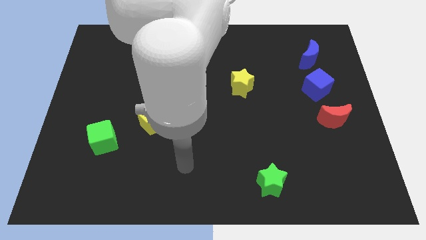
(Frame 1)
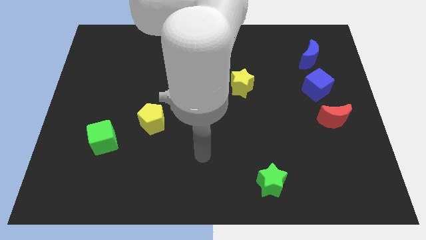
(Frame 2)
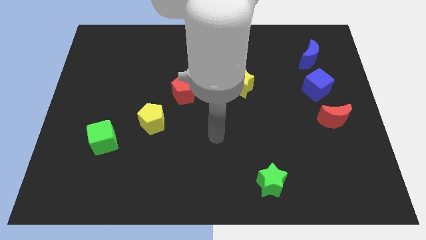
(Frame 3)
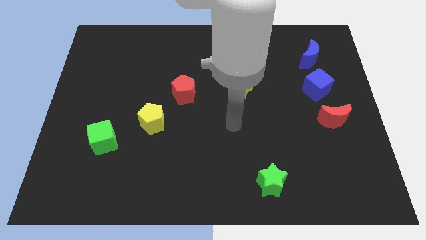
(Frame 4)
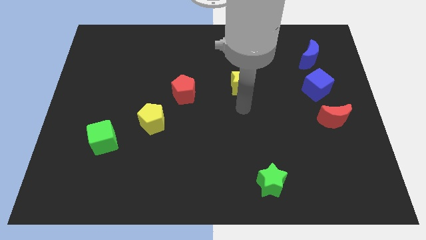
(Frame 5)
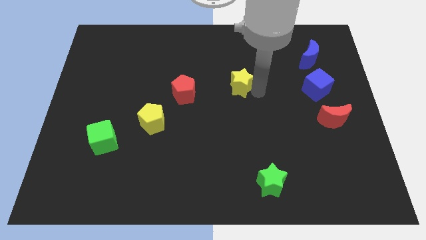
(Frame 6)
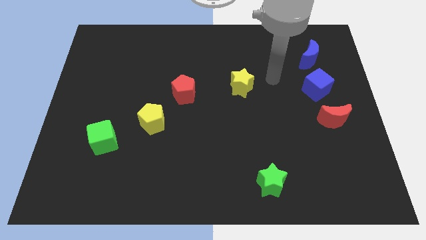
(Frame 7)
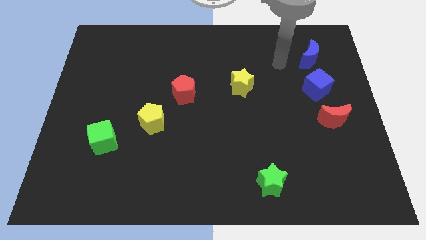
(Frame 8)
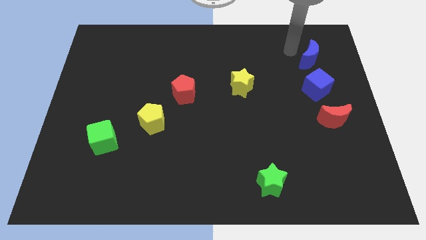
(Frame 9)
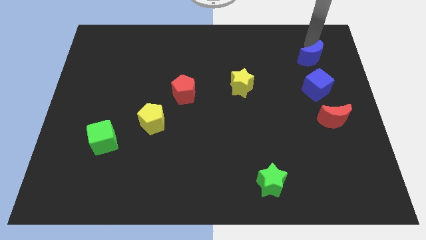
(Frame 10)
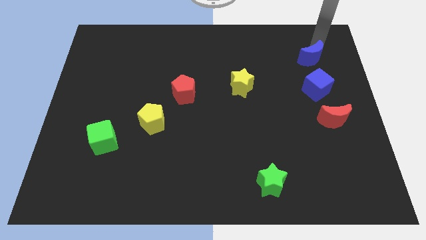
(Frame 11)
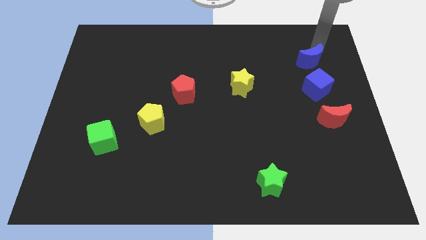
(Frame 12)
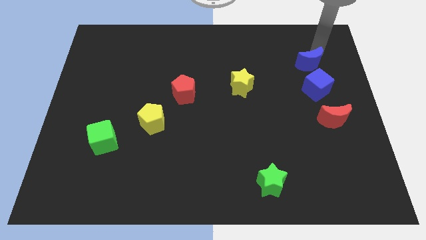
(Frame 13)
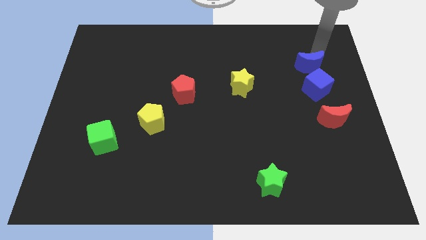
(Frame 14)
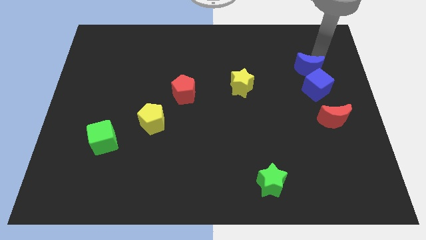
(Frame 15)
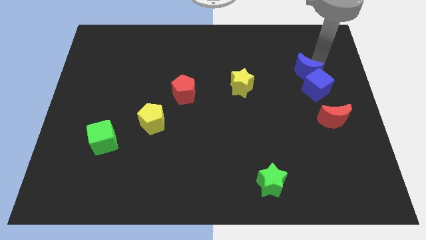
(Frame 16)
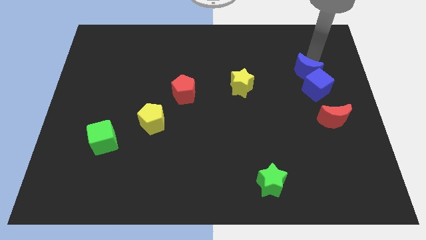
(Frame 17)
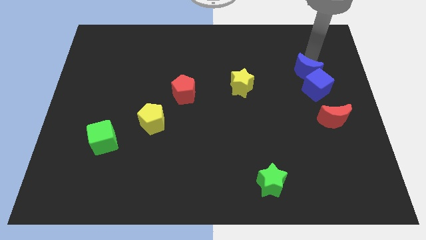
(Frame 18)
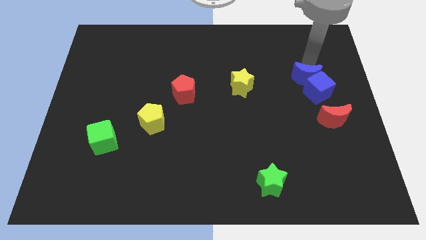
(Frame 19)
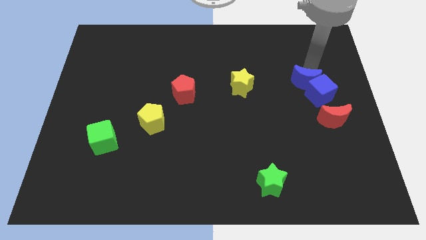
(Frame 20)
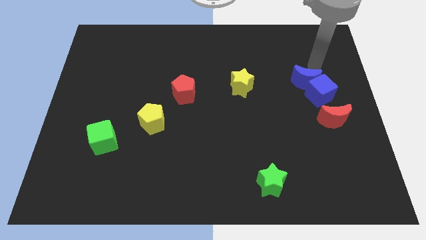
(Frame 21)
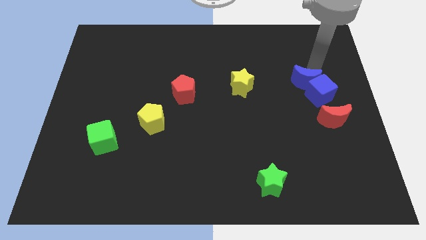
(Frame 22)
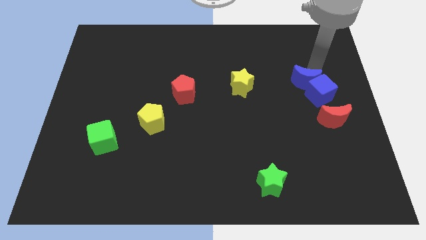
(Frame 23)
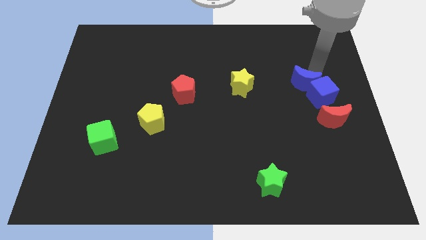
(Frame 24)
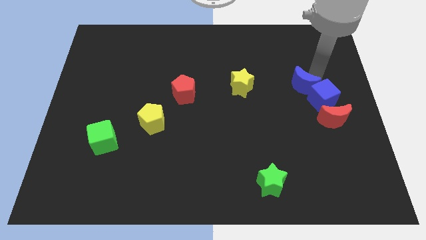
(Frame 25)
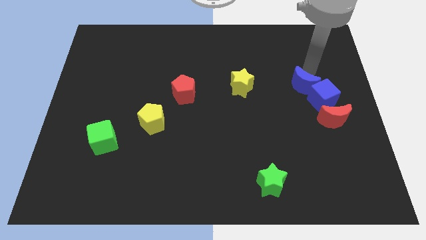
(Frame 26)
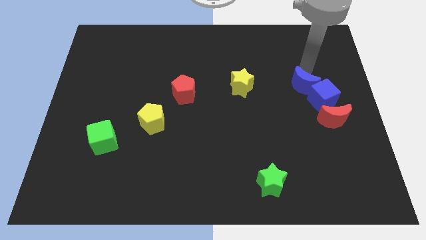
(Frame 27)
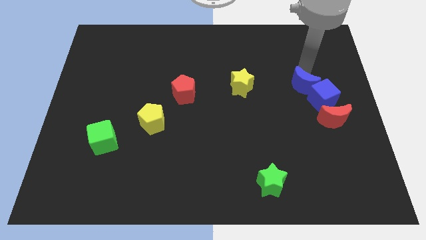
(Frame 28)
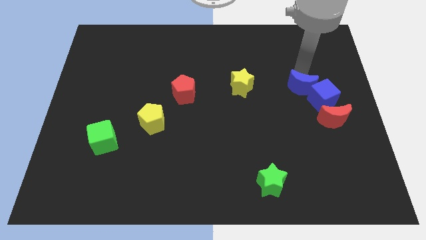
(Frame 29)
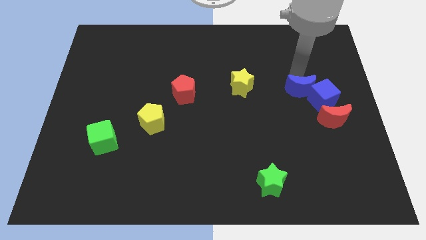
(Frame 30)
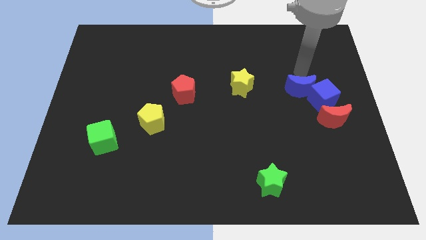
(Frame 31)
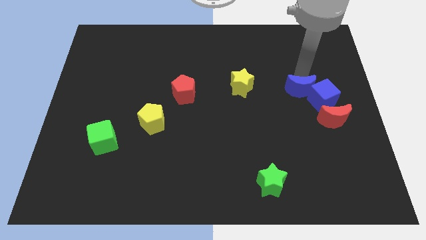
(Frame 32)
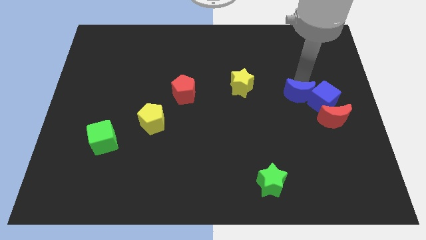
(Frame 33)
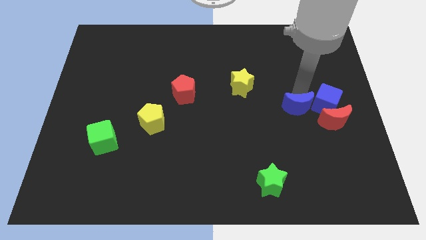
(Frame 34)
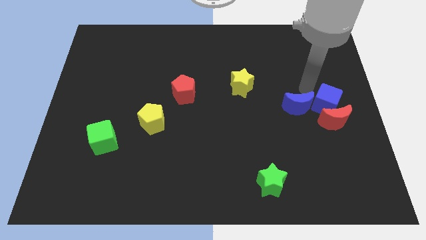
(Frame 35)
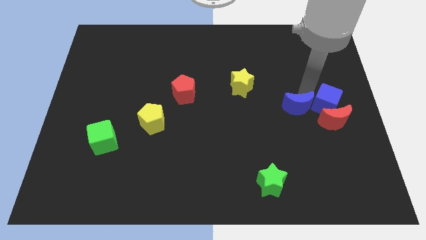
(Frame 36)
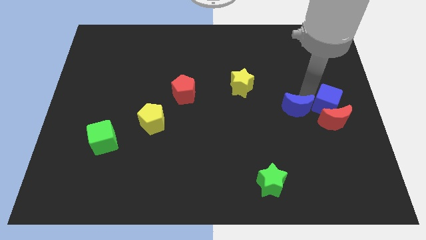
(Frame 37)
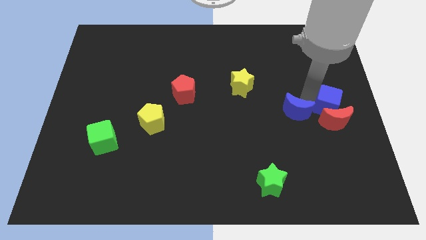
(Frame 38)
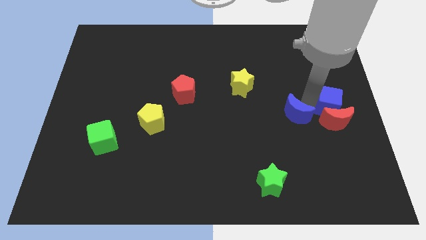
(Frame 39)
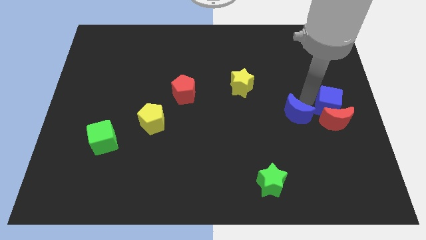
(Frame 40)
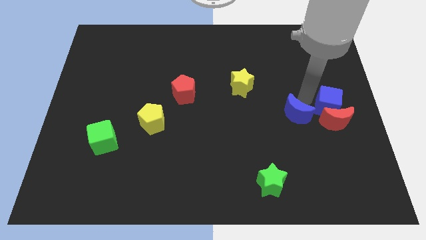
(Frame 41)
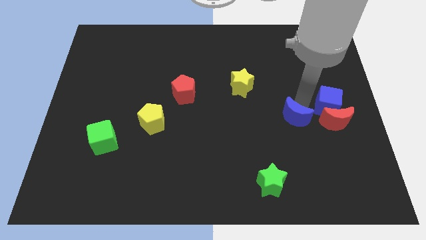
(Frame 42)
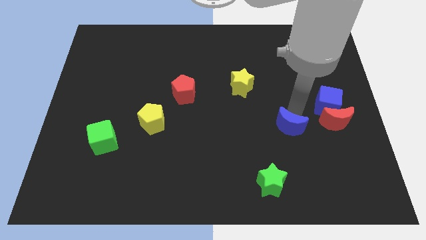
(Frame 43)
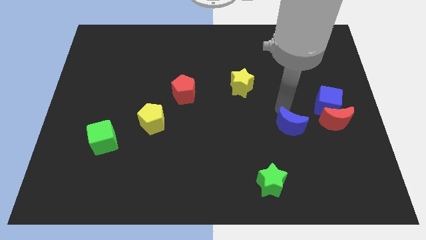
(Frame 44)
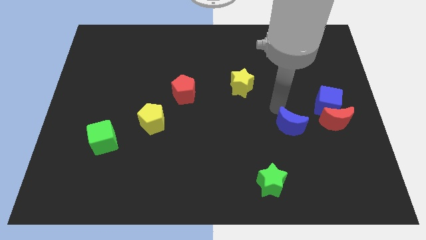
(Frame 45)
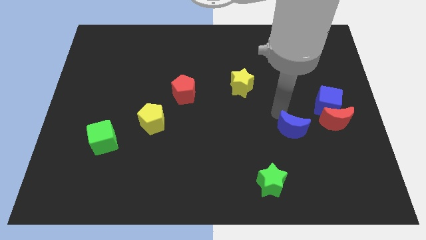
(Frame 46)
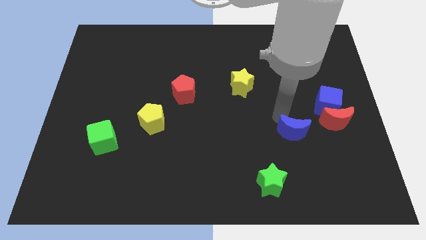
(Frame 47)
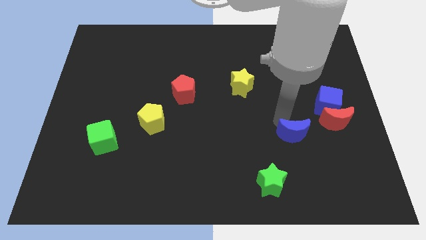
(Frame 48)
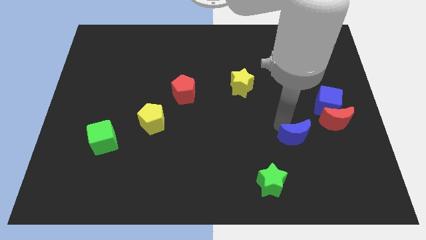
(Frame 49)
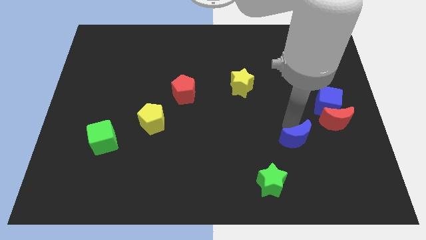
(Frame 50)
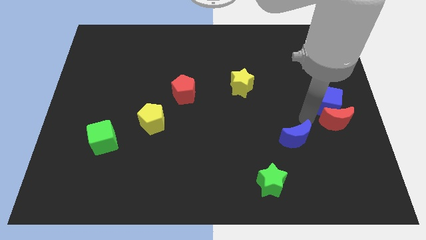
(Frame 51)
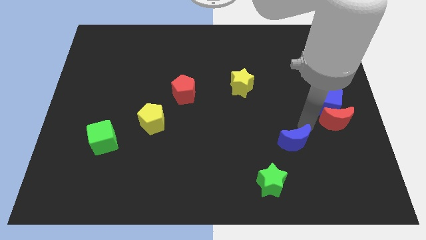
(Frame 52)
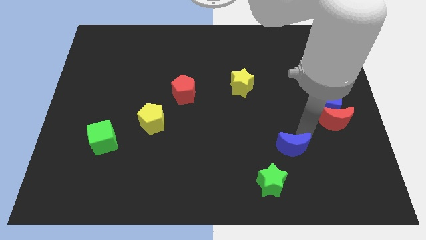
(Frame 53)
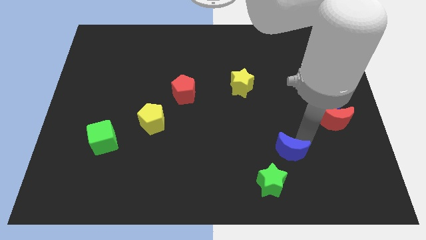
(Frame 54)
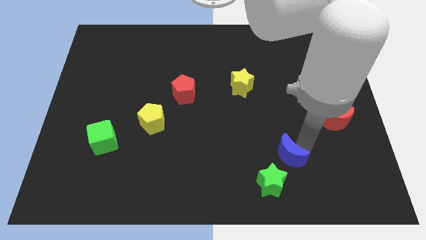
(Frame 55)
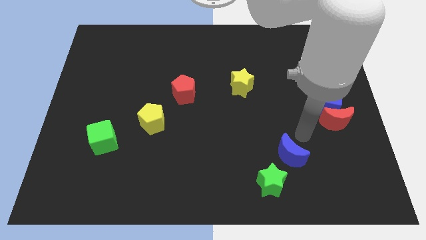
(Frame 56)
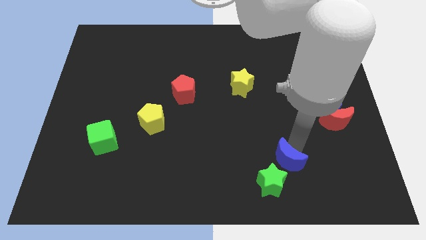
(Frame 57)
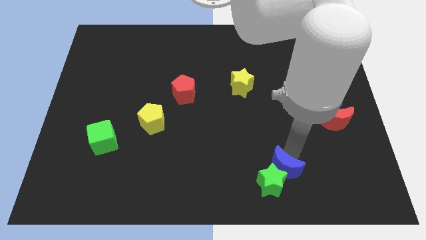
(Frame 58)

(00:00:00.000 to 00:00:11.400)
slide the blue moon close to the green star

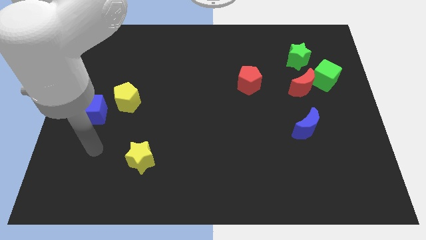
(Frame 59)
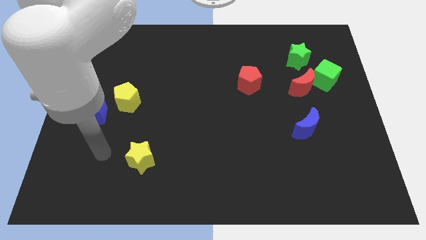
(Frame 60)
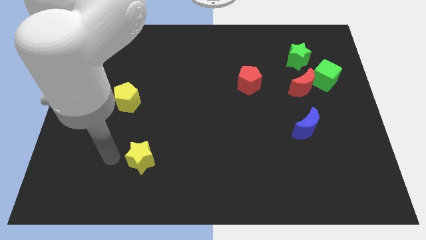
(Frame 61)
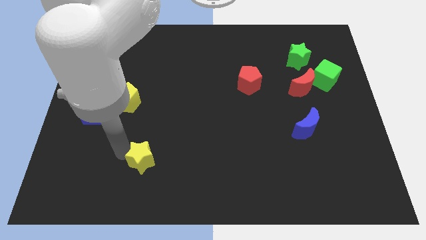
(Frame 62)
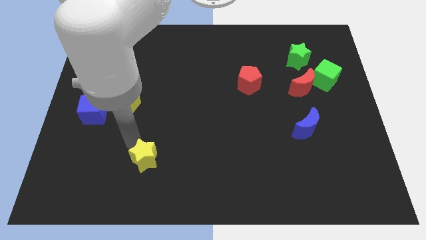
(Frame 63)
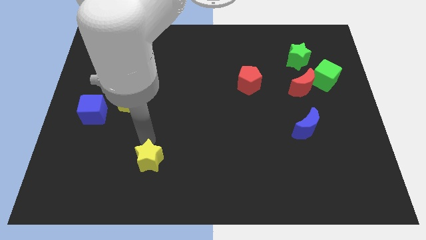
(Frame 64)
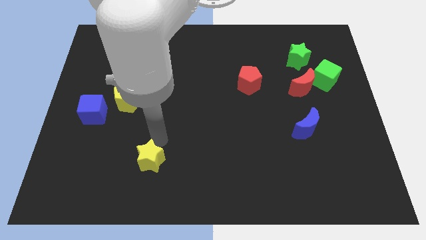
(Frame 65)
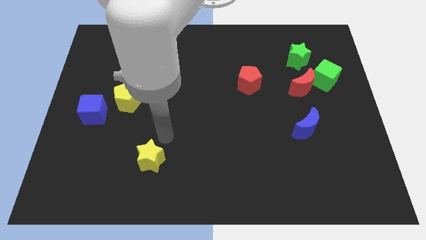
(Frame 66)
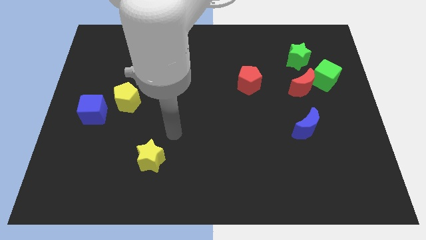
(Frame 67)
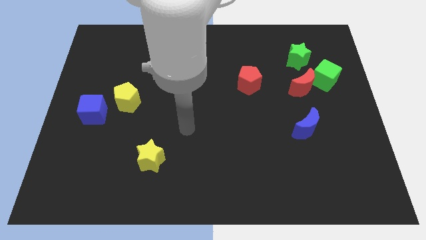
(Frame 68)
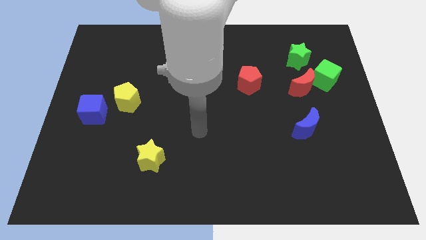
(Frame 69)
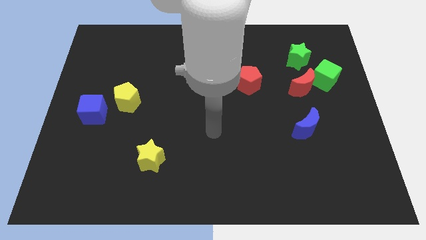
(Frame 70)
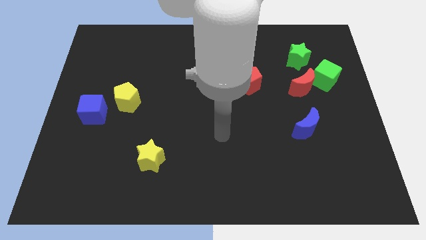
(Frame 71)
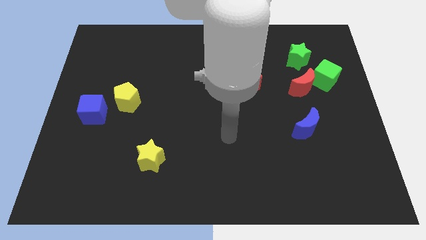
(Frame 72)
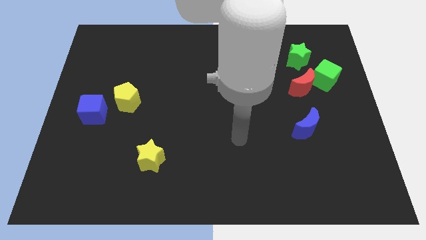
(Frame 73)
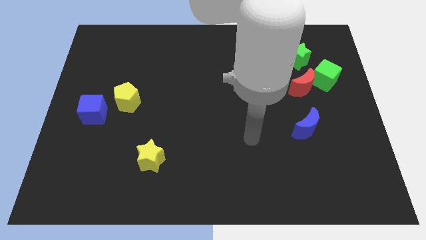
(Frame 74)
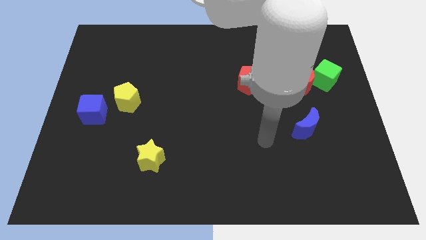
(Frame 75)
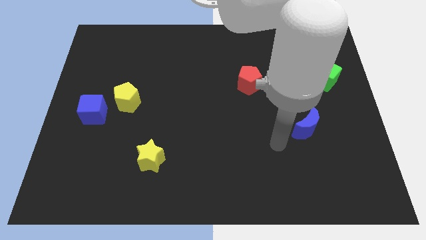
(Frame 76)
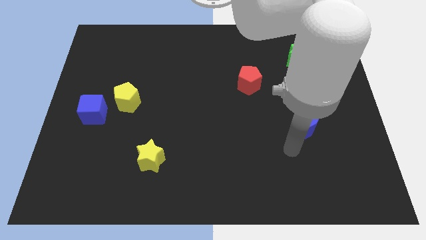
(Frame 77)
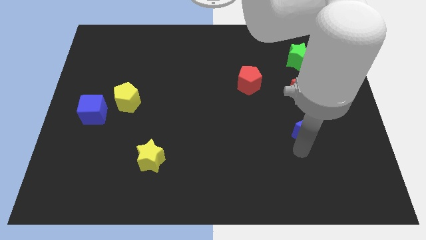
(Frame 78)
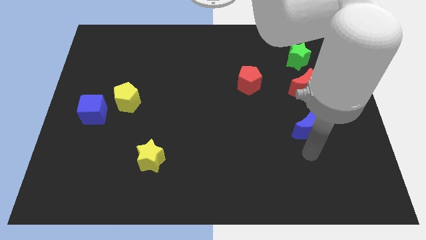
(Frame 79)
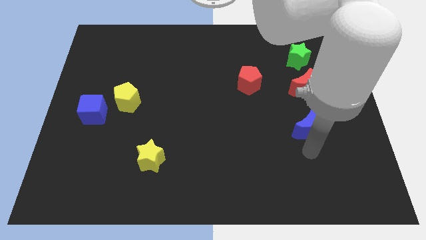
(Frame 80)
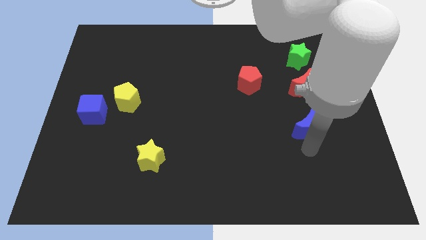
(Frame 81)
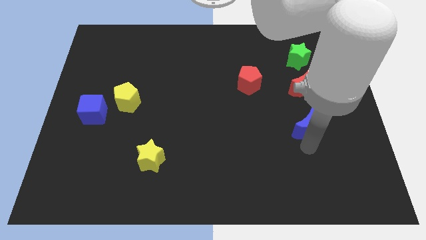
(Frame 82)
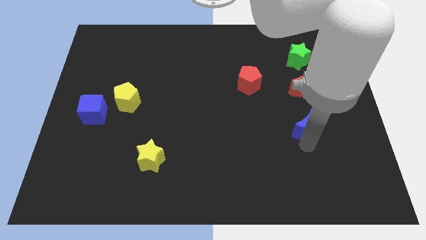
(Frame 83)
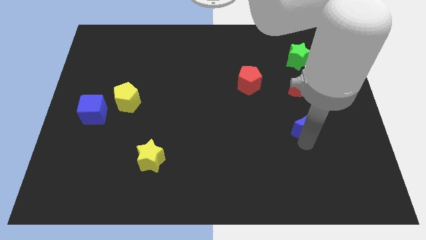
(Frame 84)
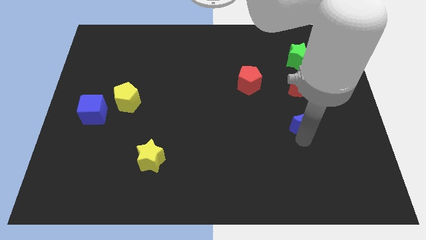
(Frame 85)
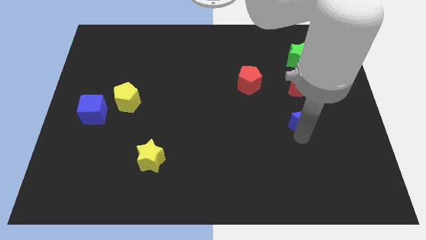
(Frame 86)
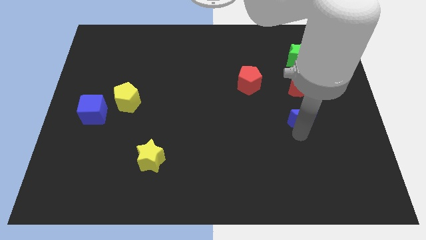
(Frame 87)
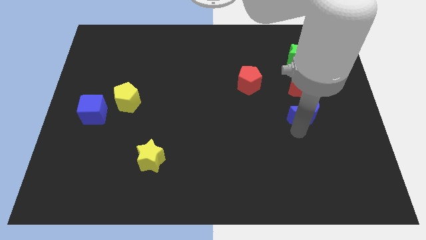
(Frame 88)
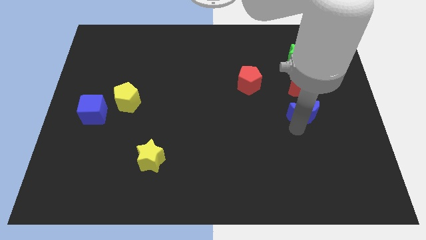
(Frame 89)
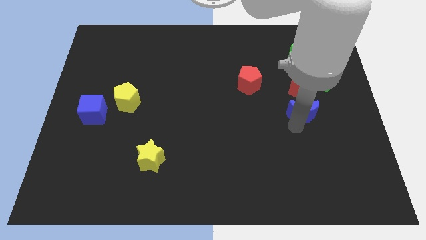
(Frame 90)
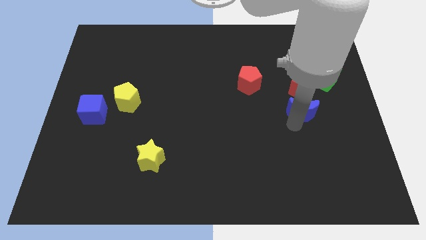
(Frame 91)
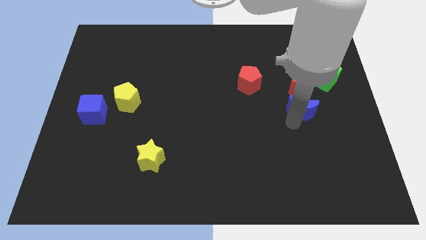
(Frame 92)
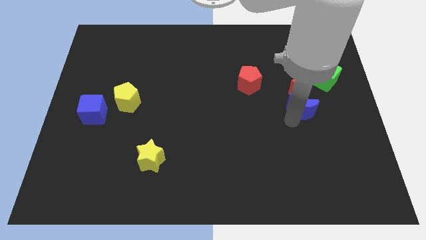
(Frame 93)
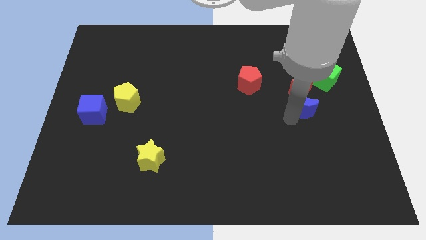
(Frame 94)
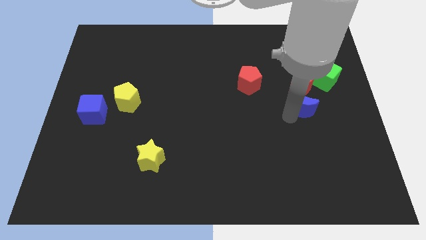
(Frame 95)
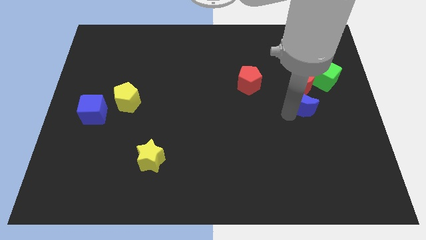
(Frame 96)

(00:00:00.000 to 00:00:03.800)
put the blue moon to the red moon
